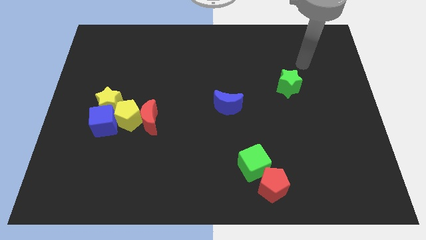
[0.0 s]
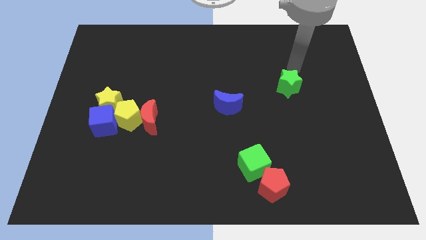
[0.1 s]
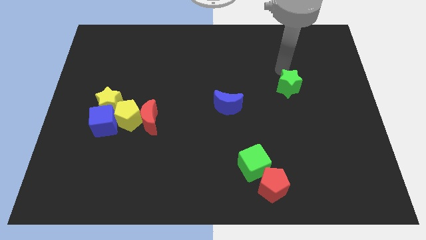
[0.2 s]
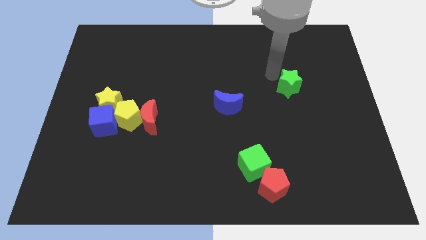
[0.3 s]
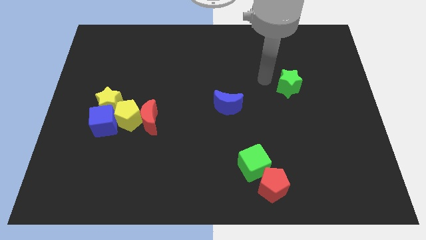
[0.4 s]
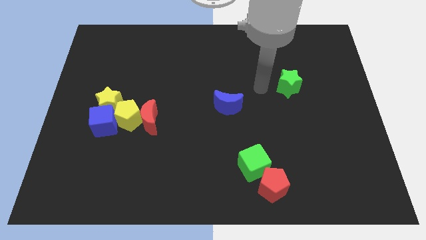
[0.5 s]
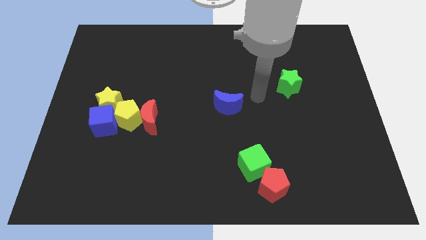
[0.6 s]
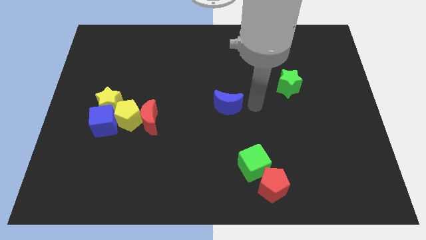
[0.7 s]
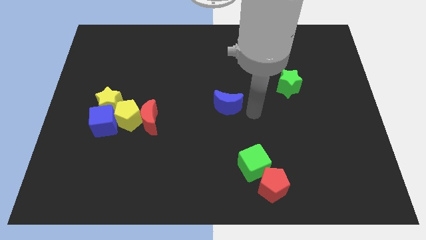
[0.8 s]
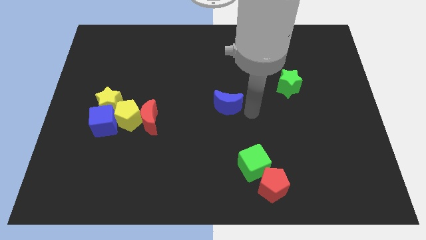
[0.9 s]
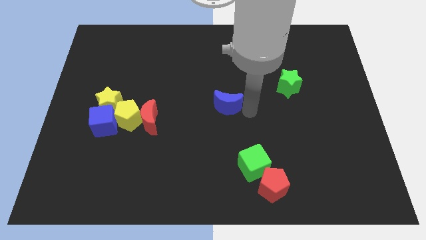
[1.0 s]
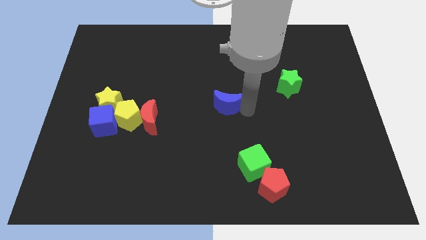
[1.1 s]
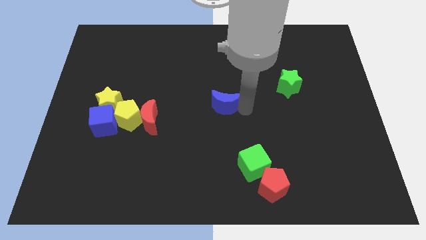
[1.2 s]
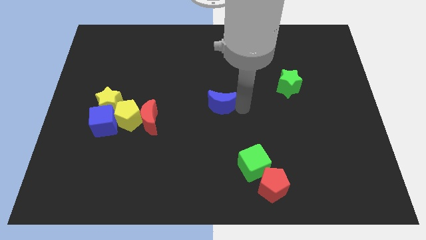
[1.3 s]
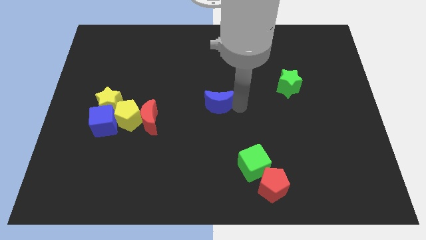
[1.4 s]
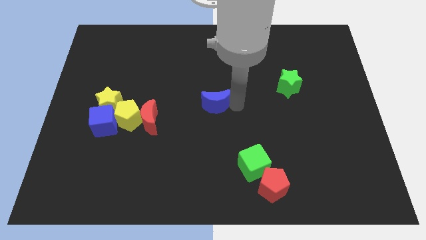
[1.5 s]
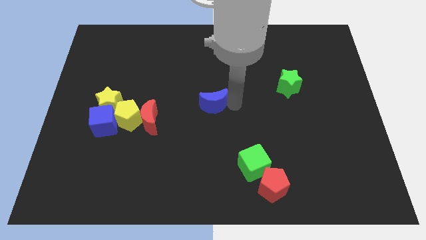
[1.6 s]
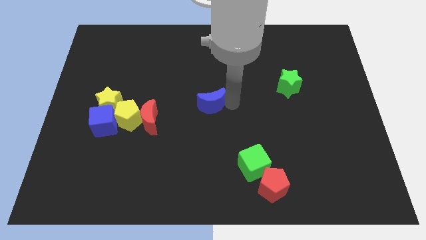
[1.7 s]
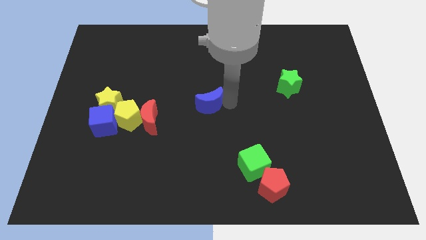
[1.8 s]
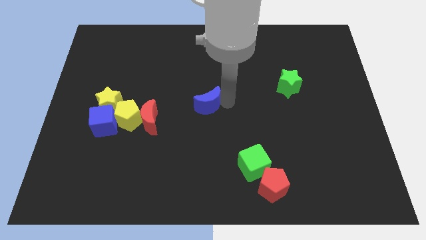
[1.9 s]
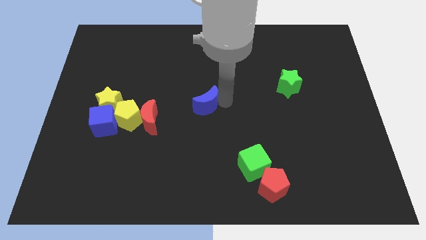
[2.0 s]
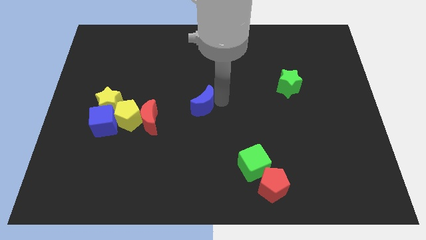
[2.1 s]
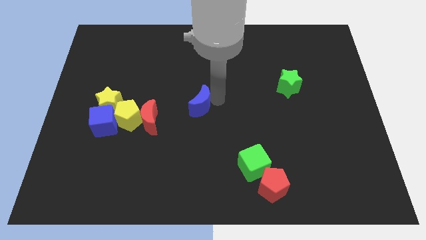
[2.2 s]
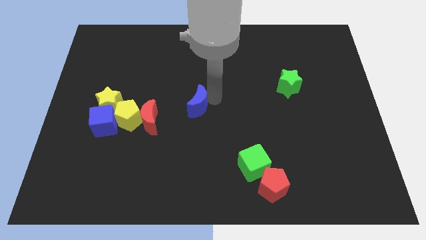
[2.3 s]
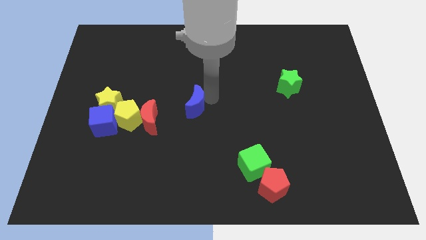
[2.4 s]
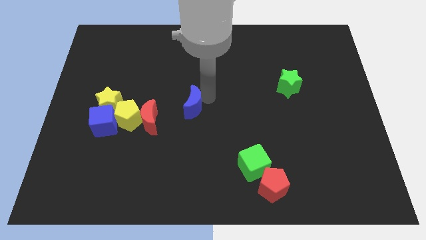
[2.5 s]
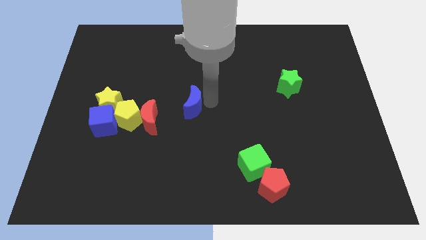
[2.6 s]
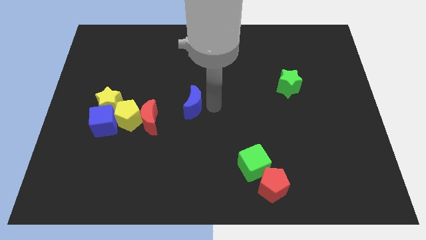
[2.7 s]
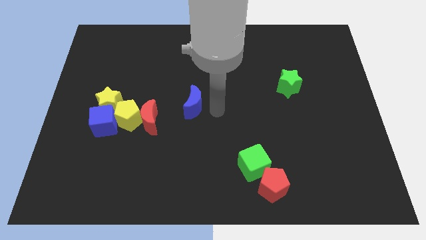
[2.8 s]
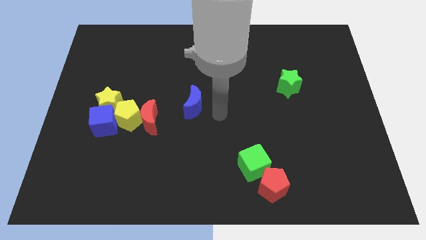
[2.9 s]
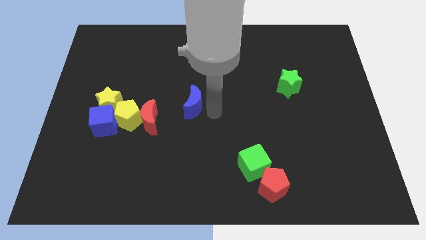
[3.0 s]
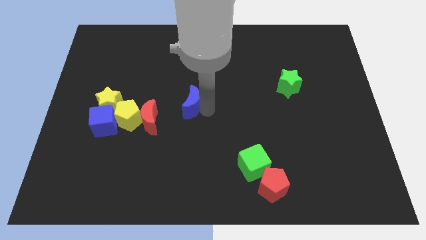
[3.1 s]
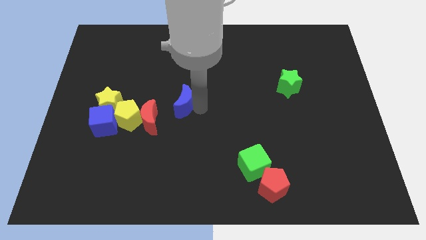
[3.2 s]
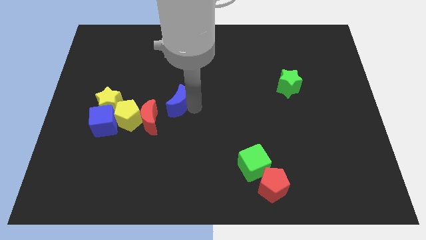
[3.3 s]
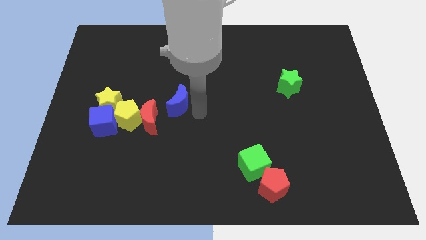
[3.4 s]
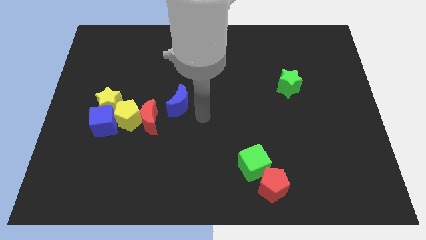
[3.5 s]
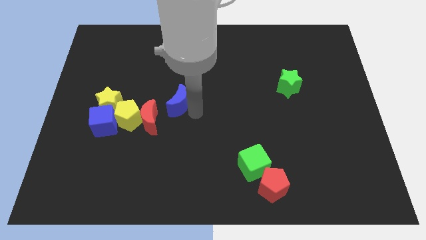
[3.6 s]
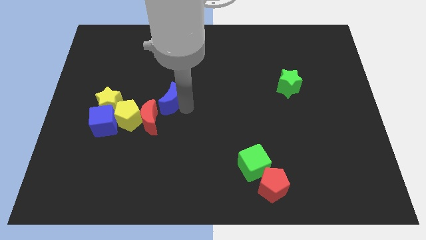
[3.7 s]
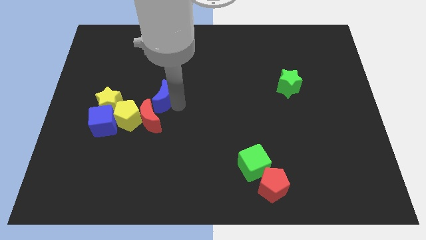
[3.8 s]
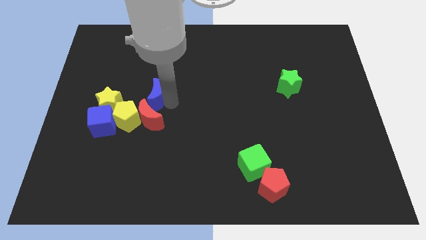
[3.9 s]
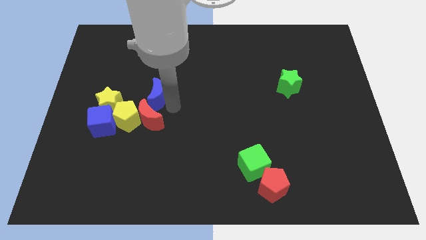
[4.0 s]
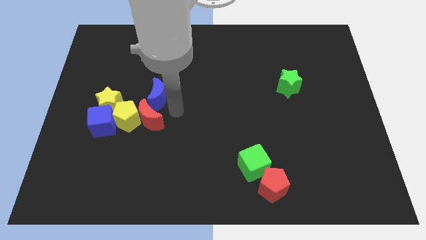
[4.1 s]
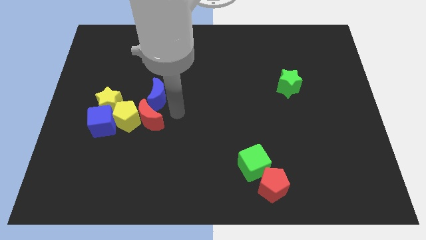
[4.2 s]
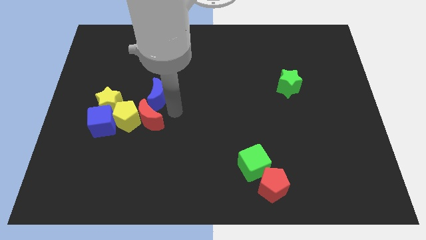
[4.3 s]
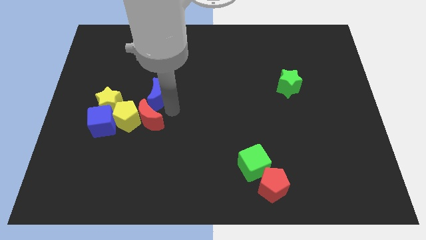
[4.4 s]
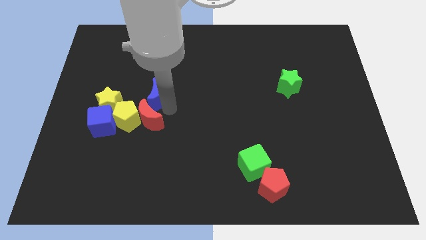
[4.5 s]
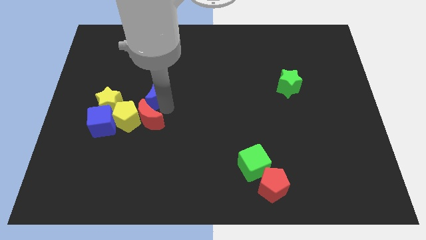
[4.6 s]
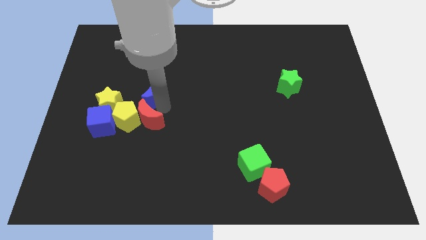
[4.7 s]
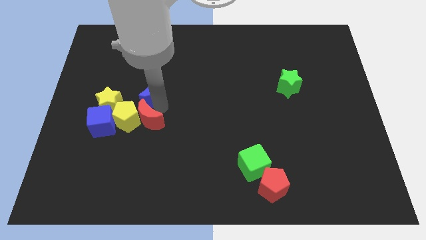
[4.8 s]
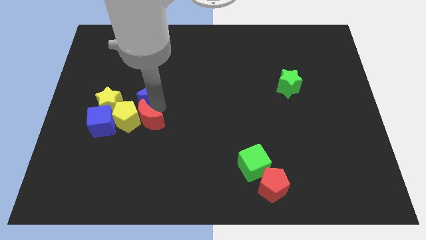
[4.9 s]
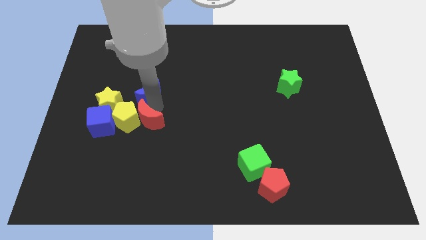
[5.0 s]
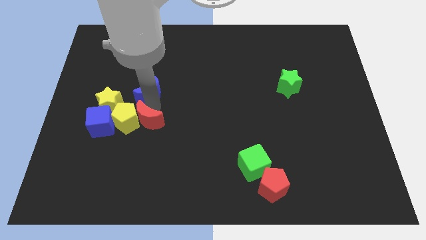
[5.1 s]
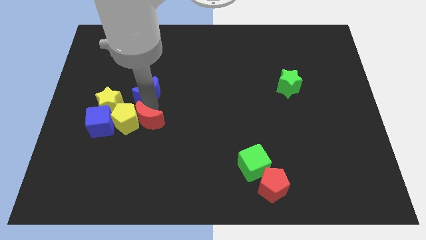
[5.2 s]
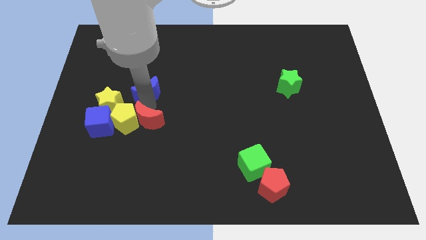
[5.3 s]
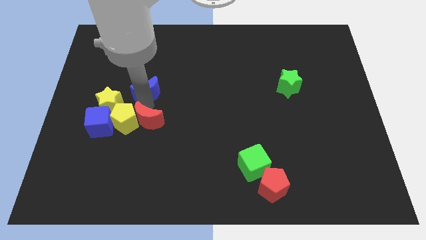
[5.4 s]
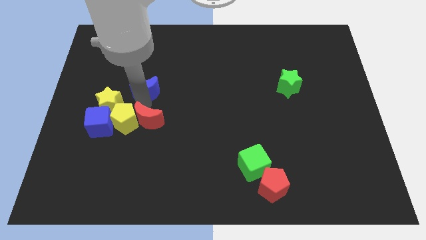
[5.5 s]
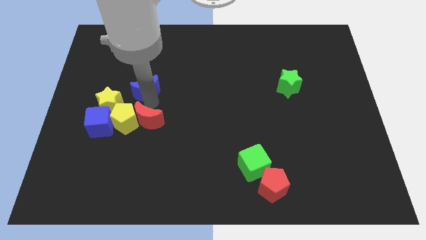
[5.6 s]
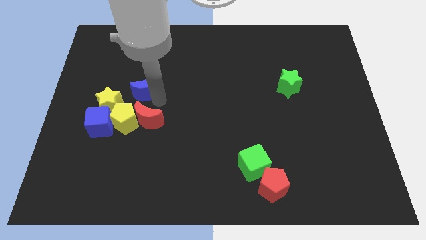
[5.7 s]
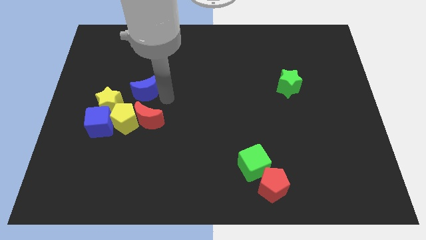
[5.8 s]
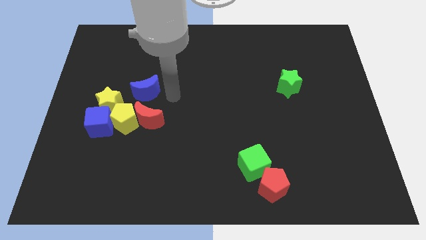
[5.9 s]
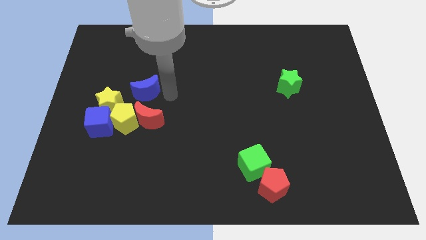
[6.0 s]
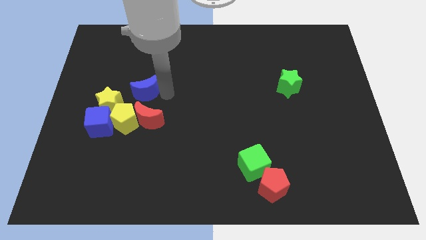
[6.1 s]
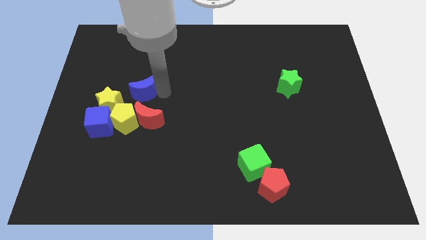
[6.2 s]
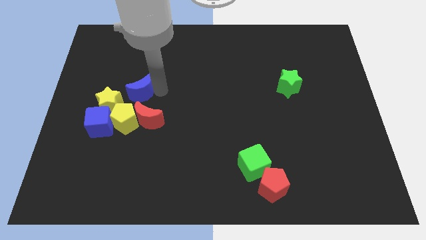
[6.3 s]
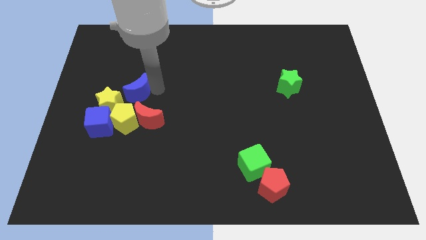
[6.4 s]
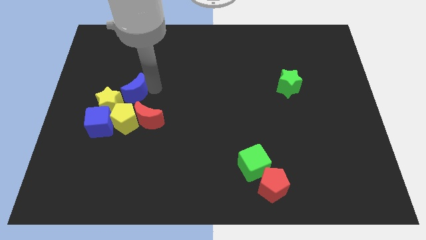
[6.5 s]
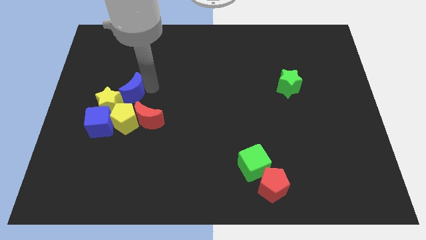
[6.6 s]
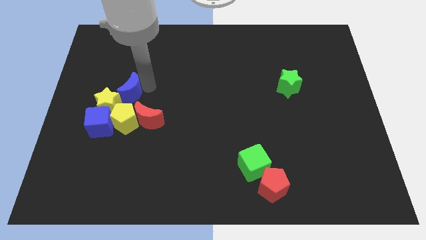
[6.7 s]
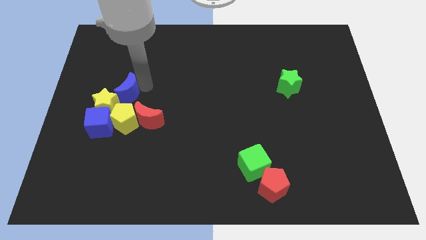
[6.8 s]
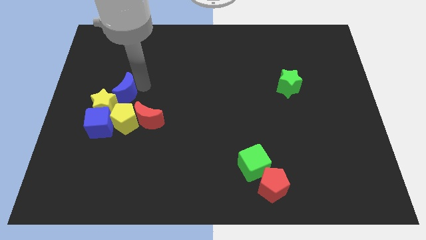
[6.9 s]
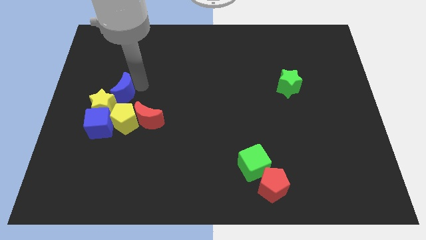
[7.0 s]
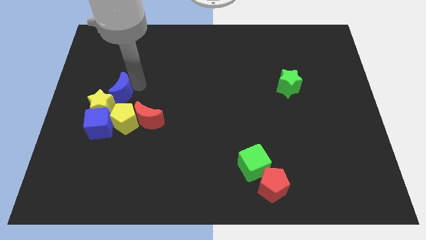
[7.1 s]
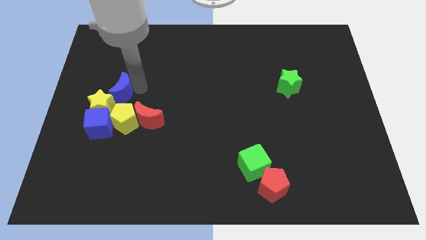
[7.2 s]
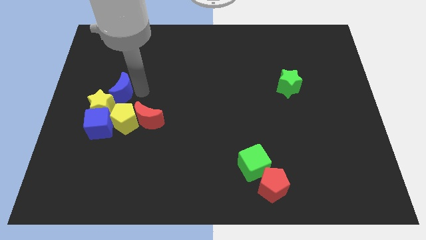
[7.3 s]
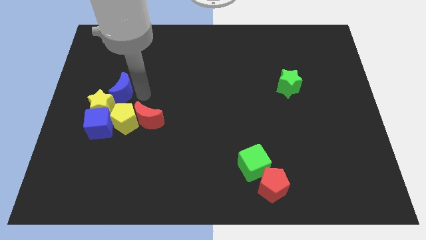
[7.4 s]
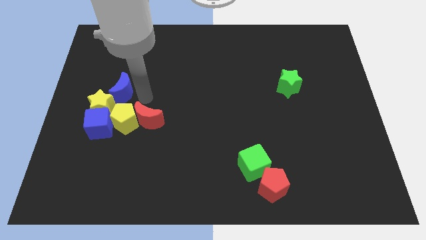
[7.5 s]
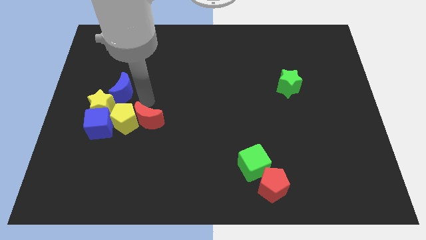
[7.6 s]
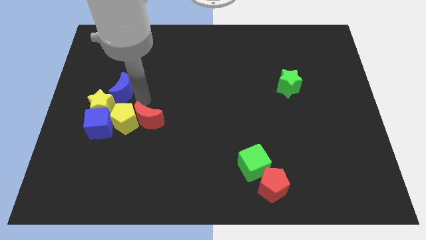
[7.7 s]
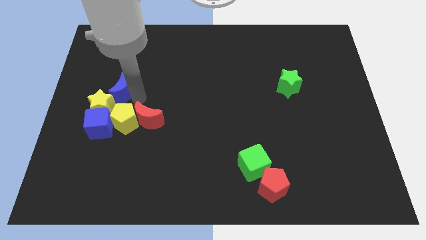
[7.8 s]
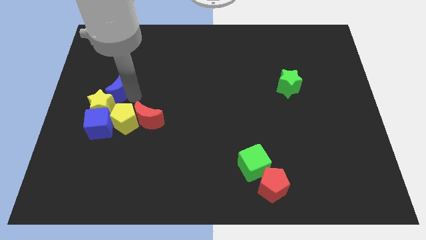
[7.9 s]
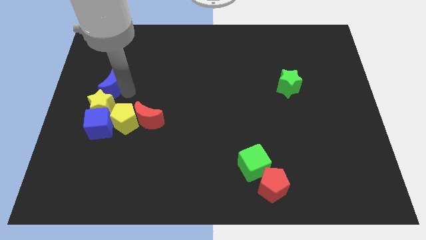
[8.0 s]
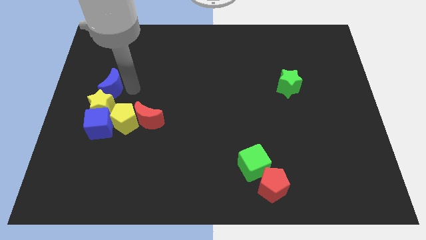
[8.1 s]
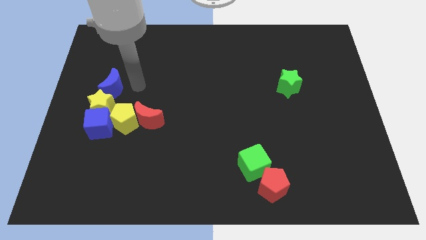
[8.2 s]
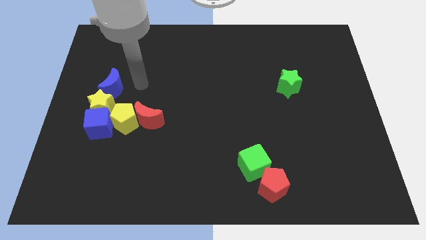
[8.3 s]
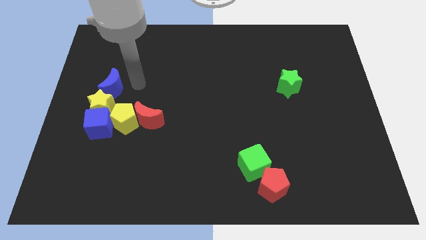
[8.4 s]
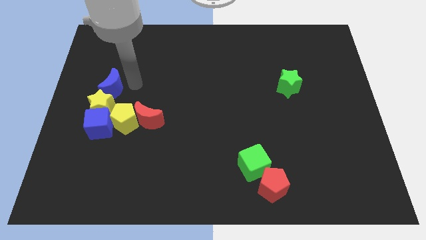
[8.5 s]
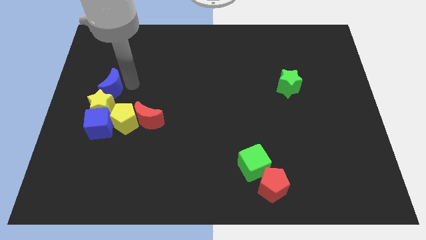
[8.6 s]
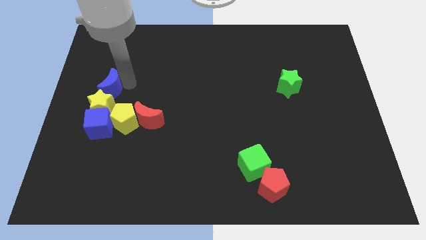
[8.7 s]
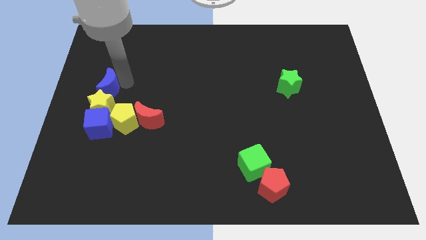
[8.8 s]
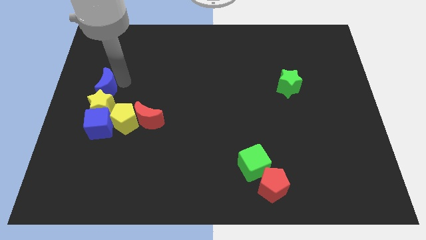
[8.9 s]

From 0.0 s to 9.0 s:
put the blue moon to the left side
